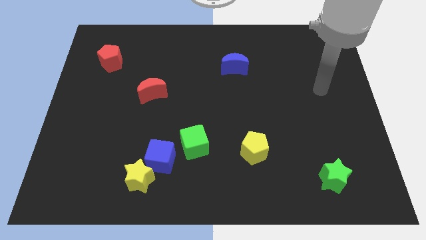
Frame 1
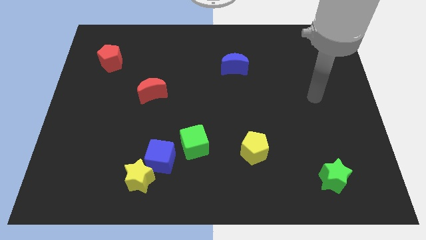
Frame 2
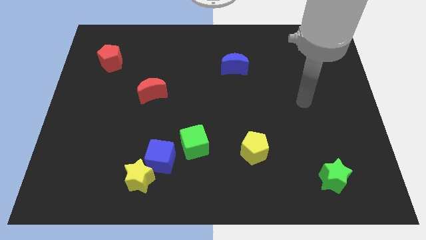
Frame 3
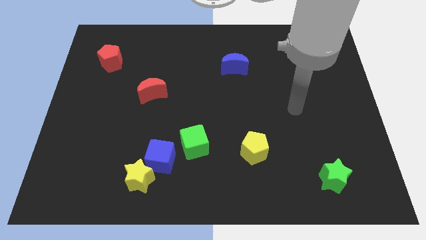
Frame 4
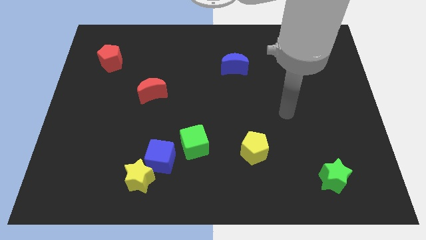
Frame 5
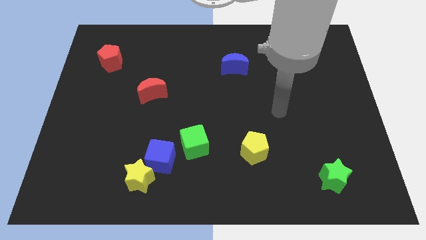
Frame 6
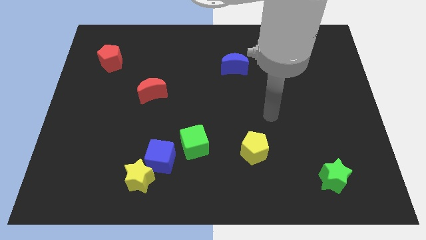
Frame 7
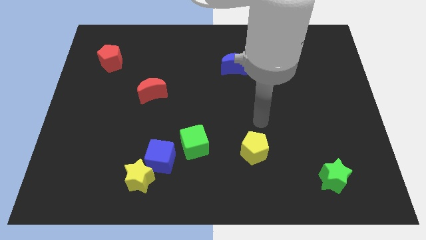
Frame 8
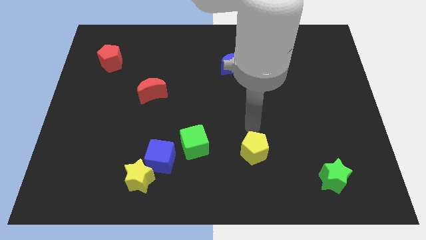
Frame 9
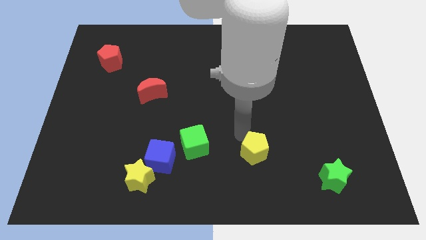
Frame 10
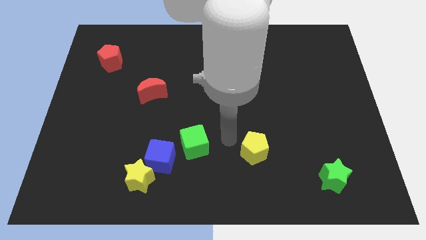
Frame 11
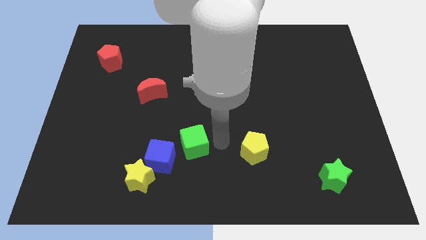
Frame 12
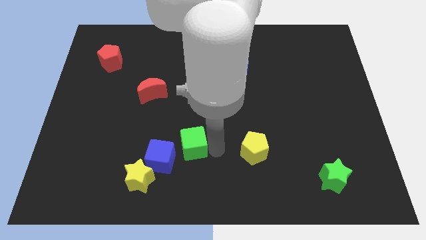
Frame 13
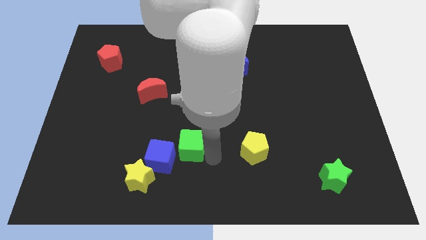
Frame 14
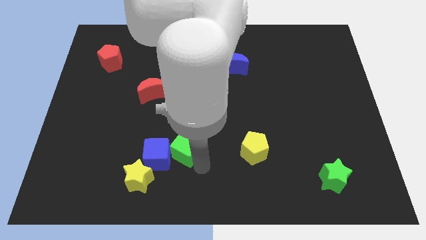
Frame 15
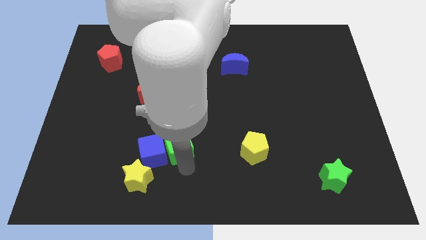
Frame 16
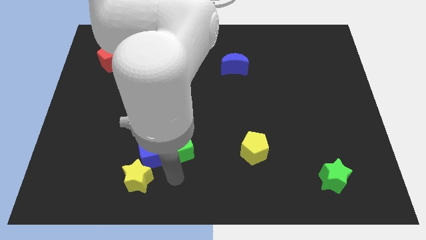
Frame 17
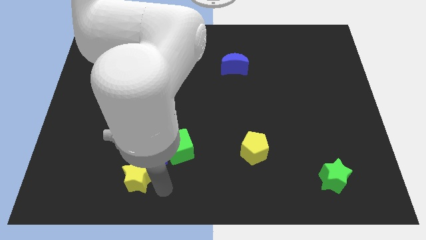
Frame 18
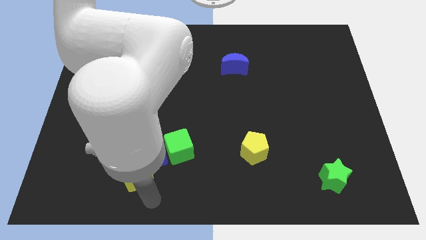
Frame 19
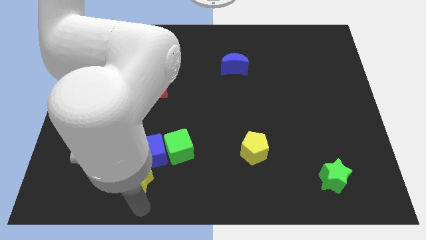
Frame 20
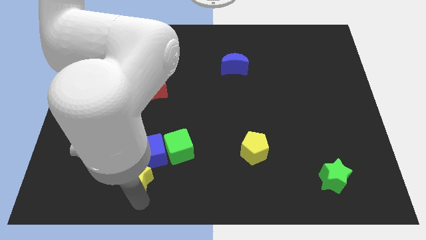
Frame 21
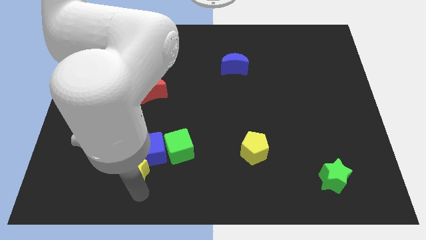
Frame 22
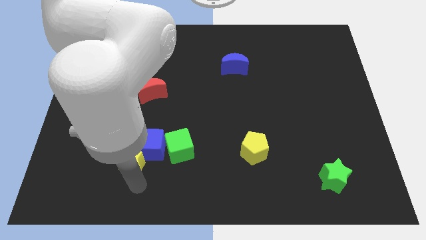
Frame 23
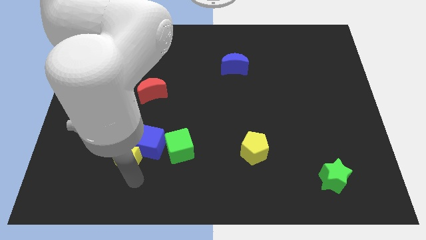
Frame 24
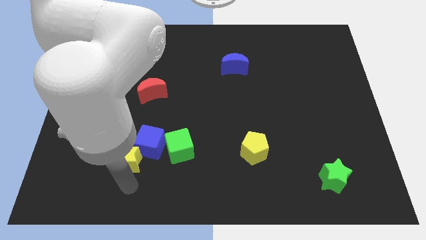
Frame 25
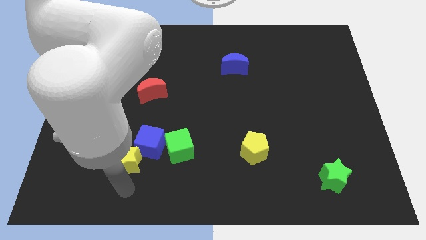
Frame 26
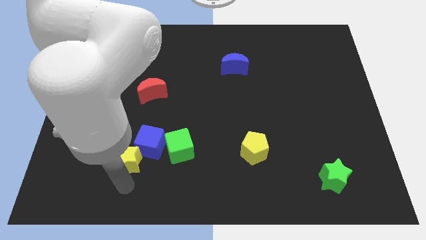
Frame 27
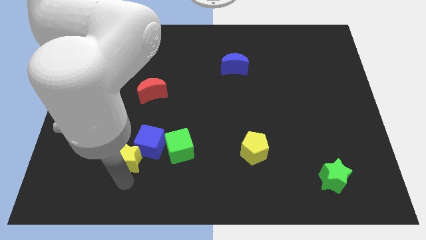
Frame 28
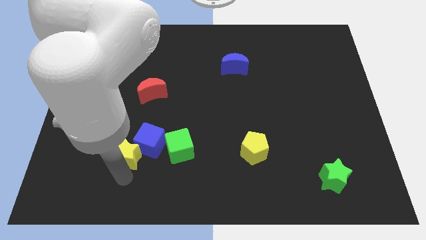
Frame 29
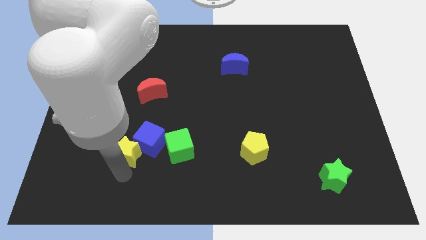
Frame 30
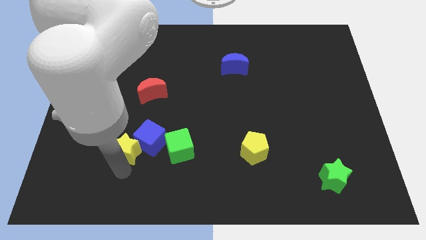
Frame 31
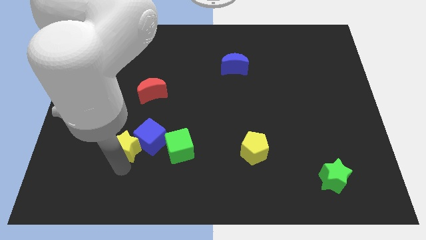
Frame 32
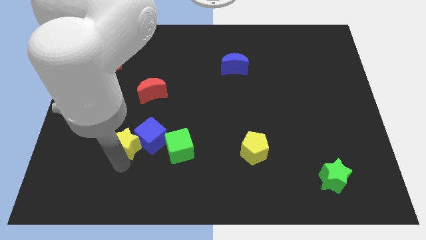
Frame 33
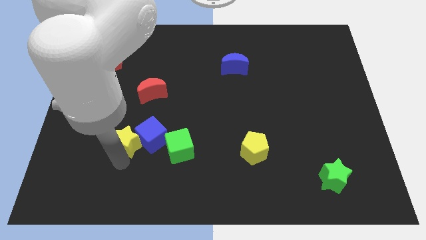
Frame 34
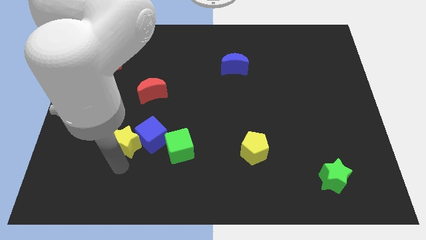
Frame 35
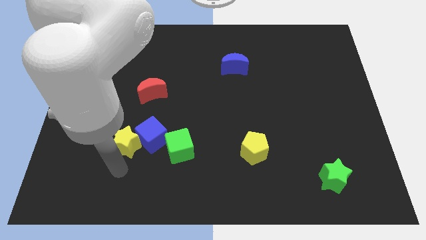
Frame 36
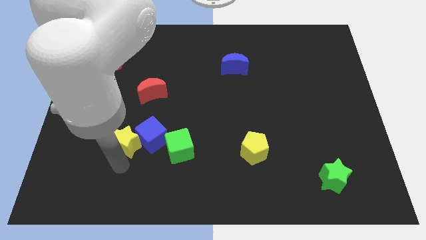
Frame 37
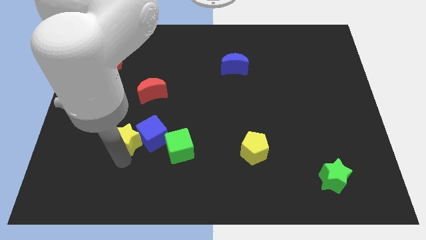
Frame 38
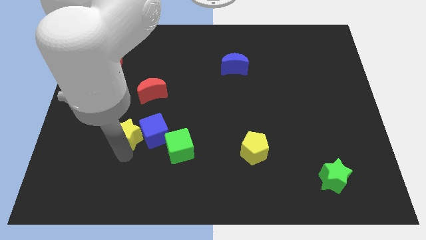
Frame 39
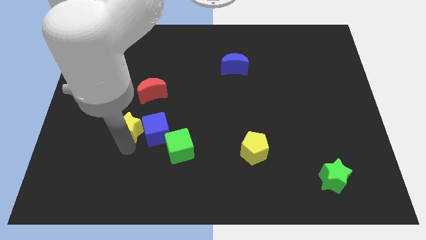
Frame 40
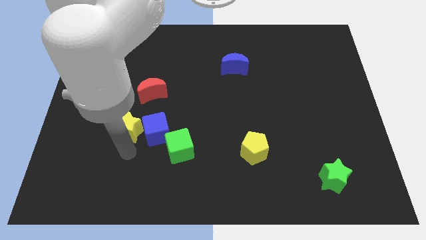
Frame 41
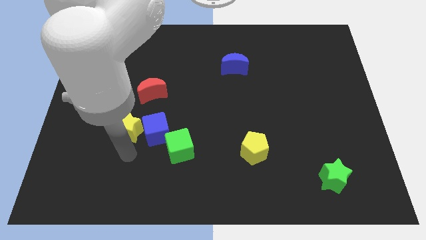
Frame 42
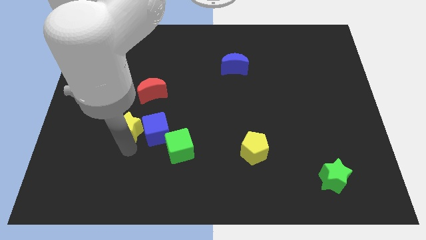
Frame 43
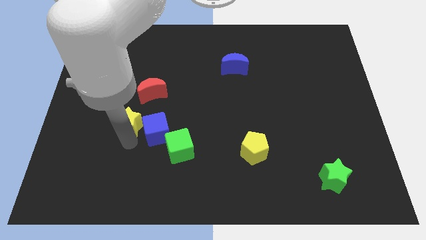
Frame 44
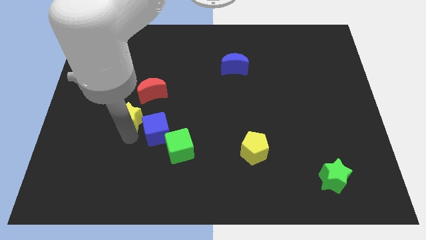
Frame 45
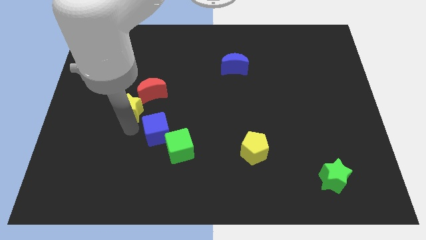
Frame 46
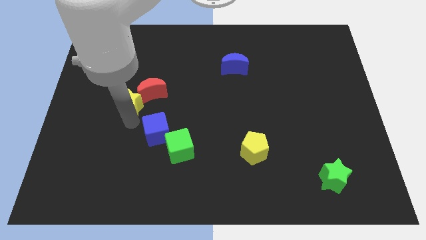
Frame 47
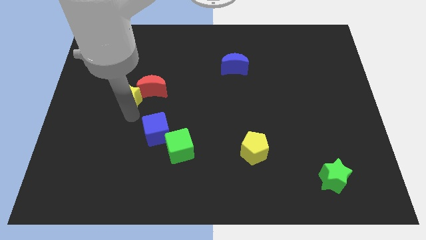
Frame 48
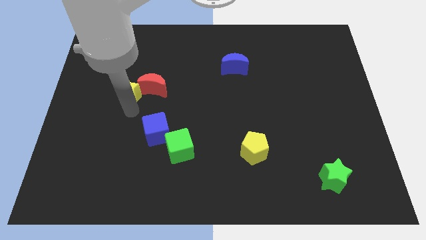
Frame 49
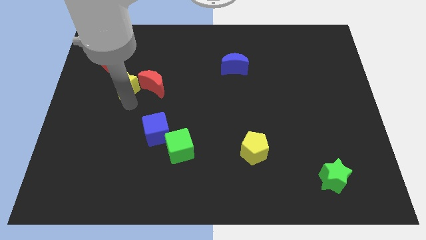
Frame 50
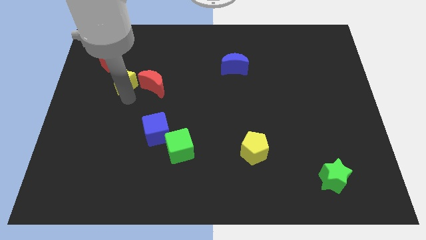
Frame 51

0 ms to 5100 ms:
put the yellow star to the top left of the red moon

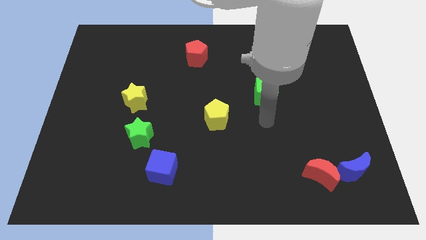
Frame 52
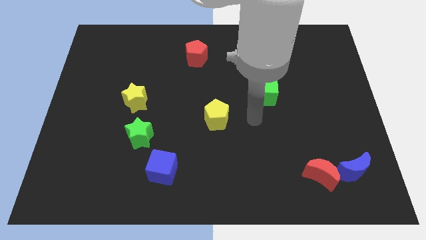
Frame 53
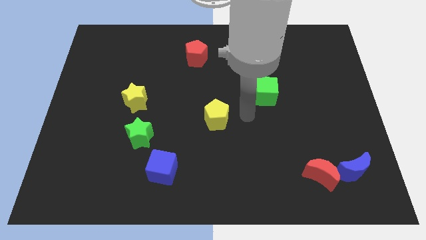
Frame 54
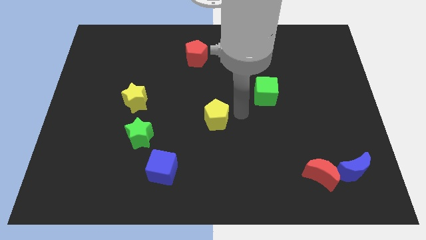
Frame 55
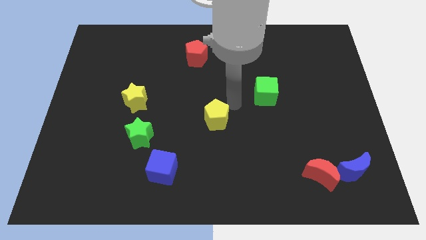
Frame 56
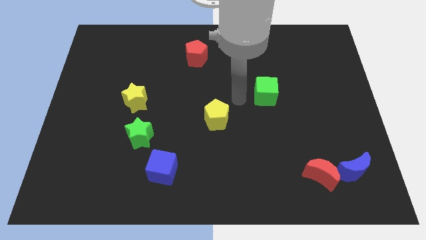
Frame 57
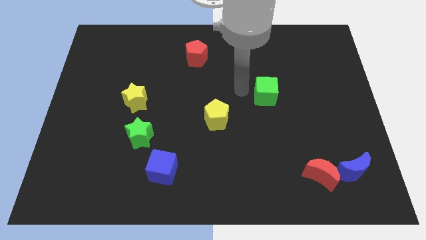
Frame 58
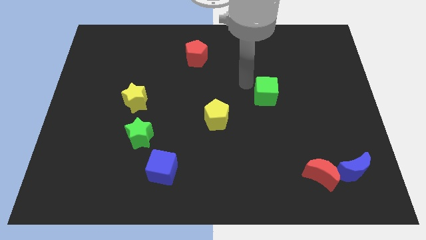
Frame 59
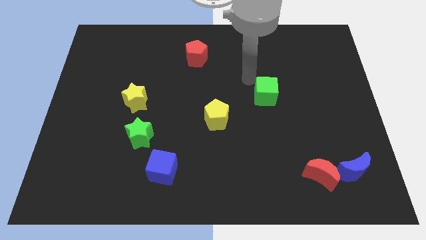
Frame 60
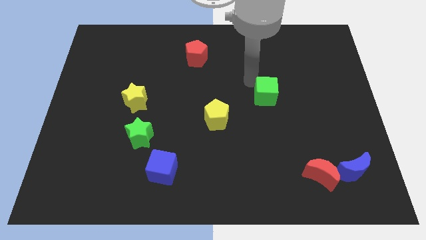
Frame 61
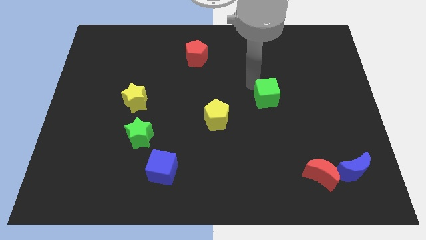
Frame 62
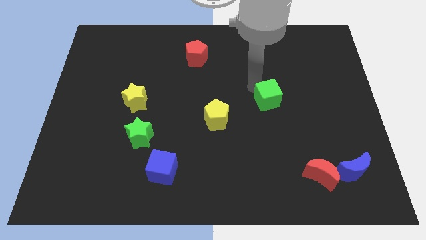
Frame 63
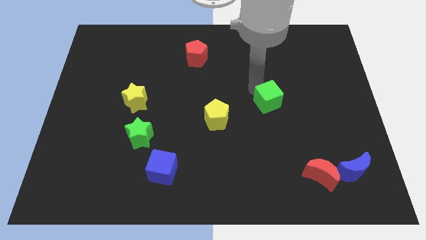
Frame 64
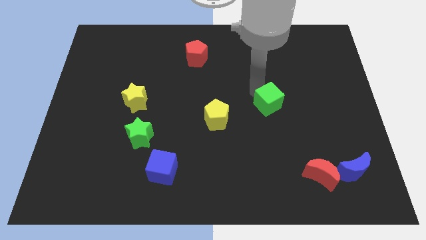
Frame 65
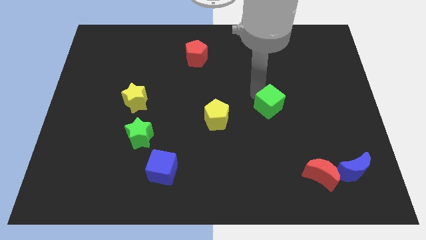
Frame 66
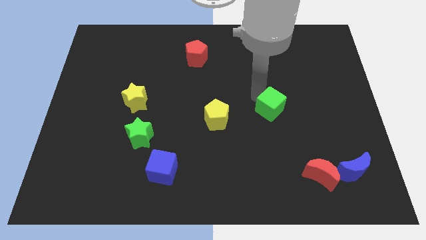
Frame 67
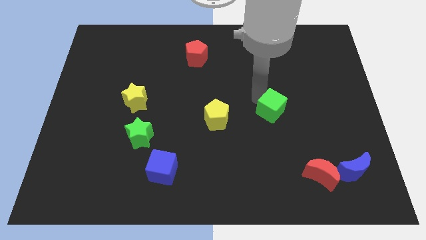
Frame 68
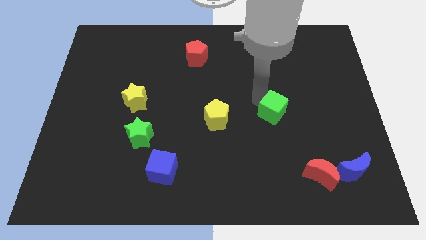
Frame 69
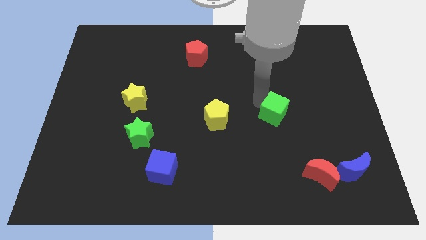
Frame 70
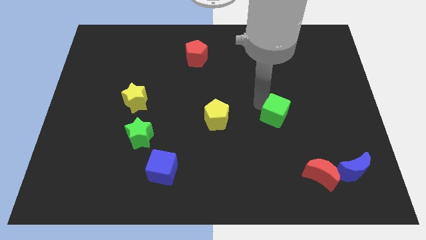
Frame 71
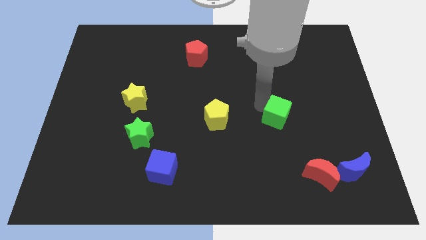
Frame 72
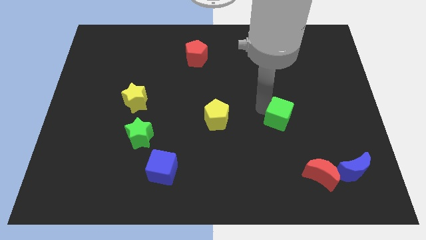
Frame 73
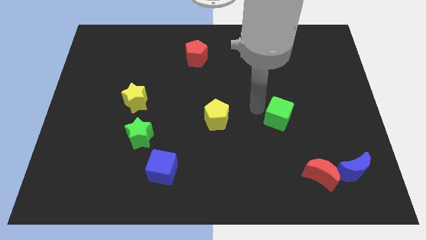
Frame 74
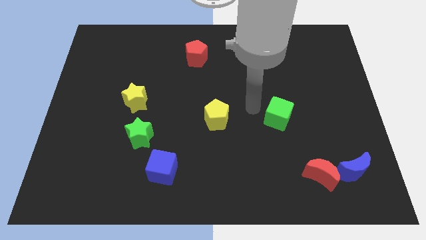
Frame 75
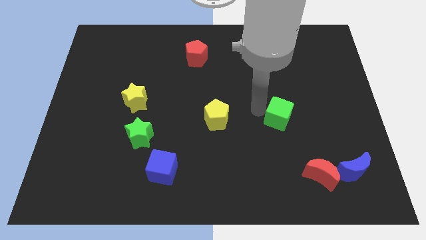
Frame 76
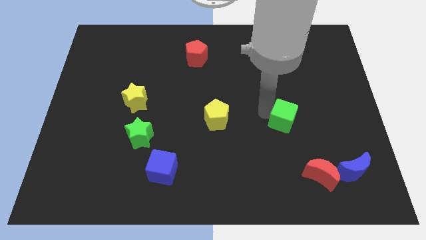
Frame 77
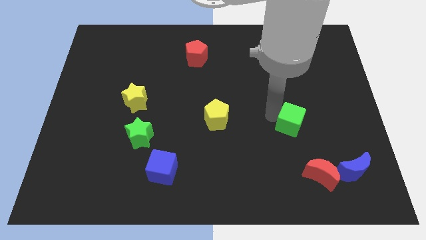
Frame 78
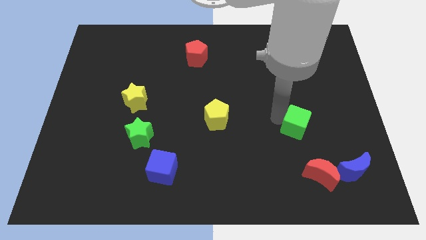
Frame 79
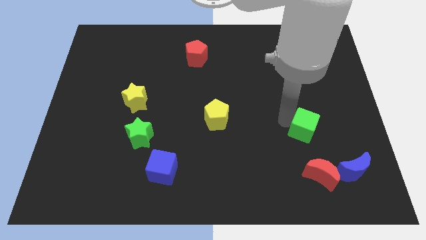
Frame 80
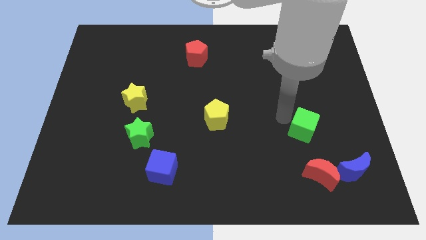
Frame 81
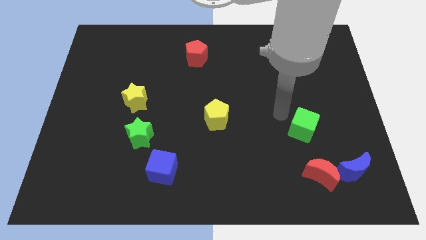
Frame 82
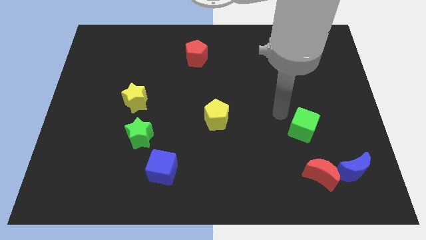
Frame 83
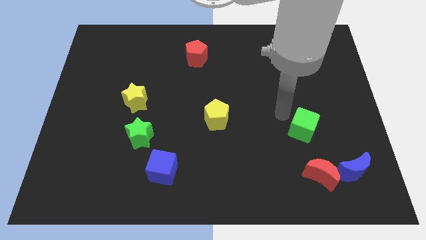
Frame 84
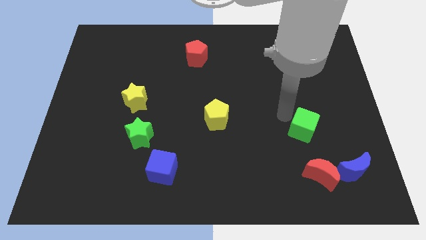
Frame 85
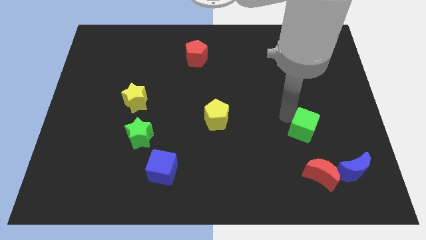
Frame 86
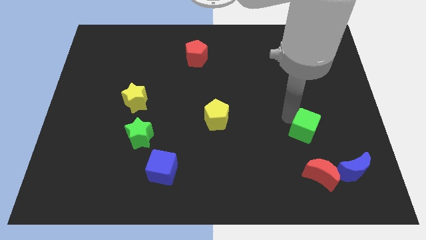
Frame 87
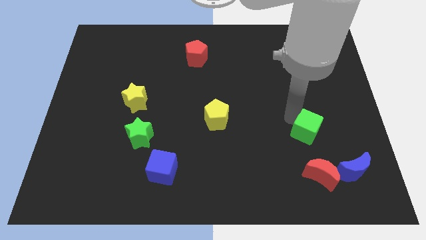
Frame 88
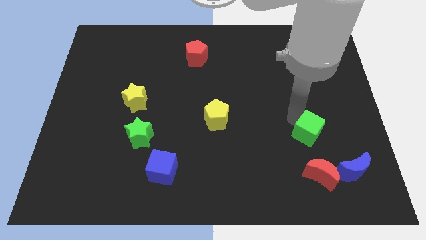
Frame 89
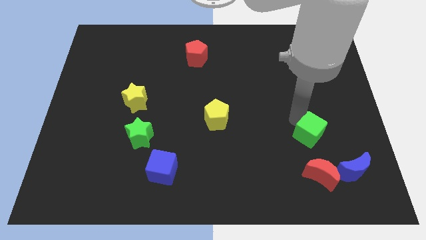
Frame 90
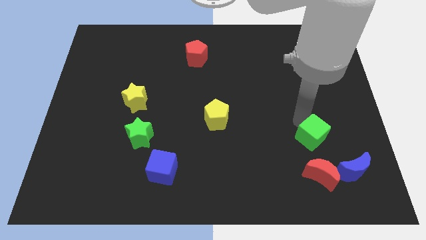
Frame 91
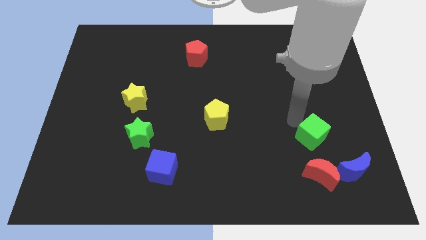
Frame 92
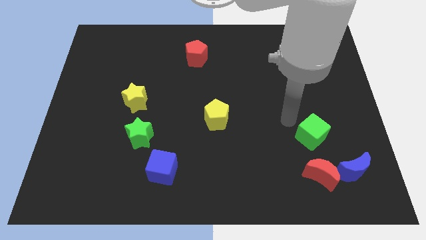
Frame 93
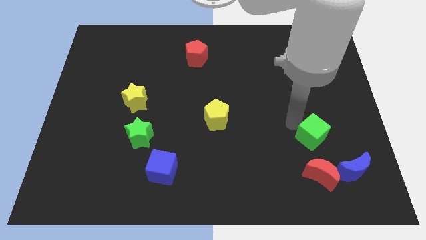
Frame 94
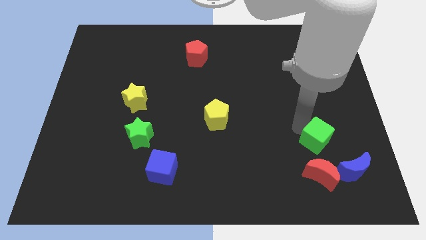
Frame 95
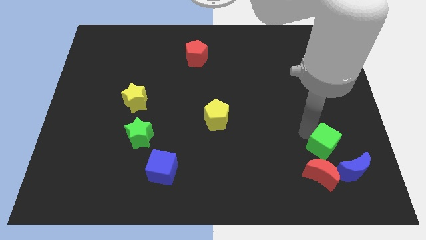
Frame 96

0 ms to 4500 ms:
push the green cube diagonally up and to the right of the red moon
